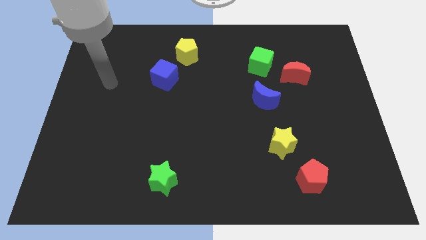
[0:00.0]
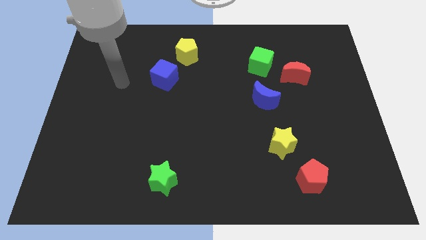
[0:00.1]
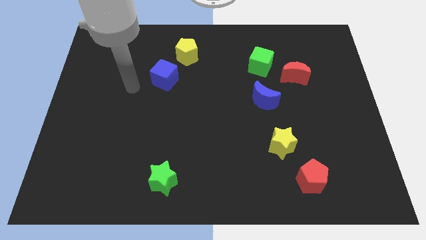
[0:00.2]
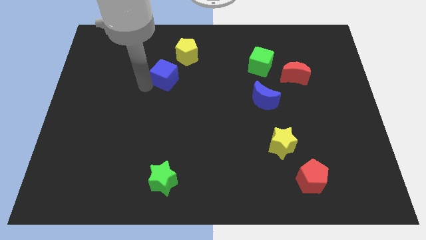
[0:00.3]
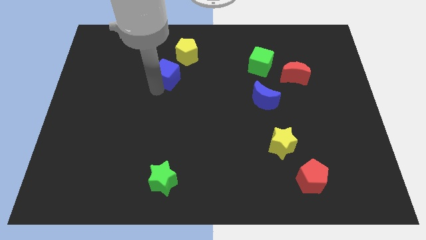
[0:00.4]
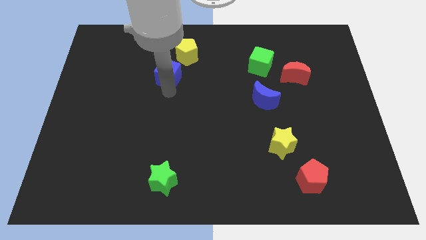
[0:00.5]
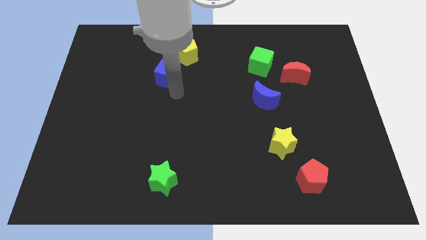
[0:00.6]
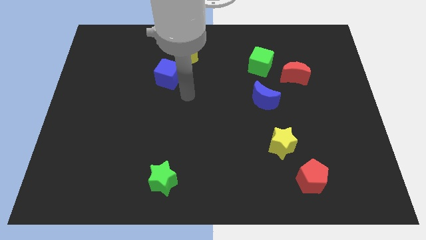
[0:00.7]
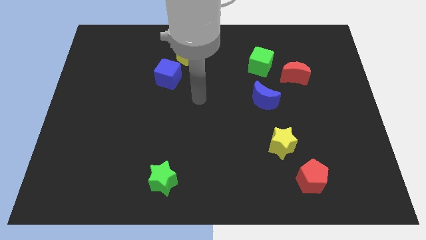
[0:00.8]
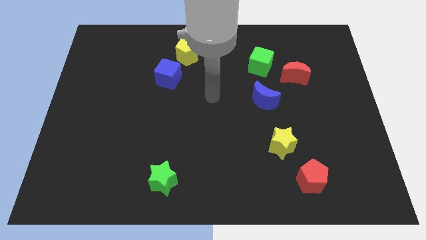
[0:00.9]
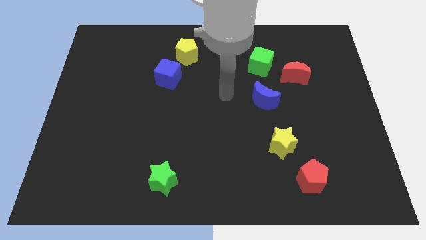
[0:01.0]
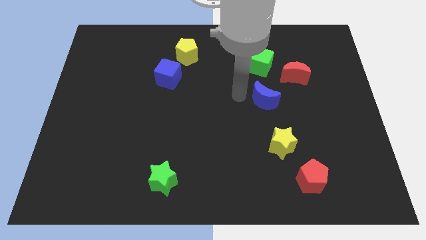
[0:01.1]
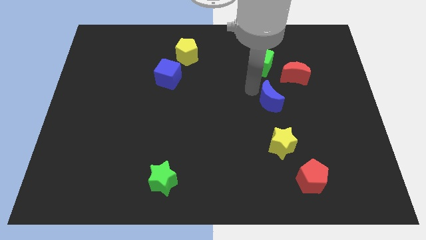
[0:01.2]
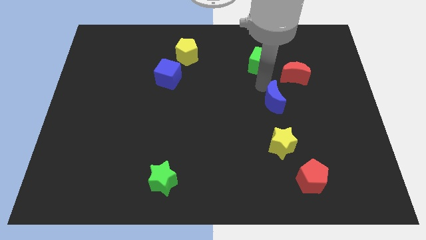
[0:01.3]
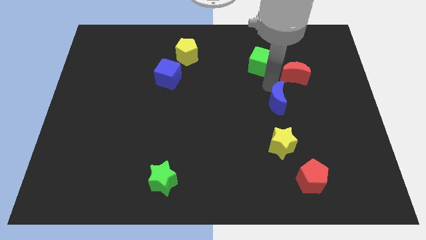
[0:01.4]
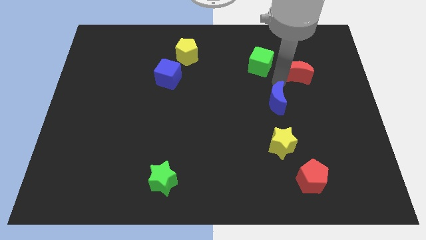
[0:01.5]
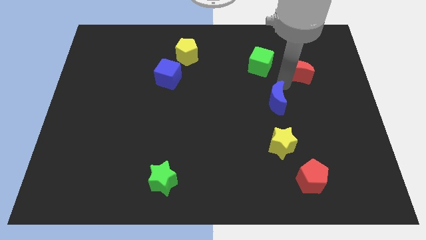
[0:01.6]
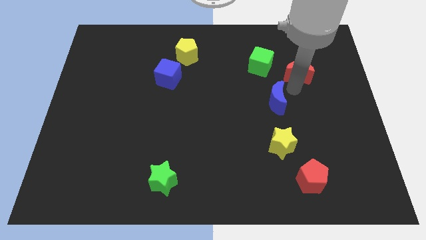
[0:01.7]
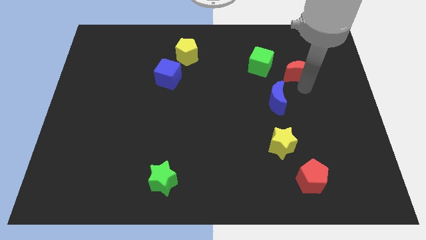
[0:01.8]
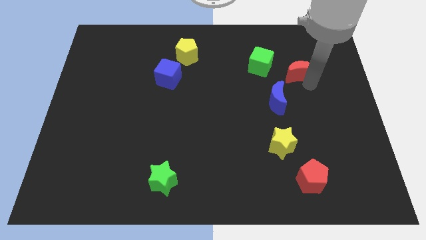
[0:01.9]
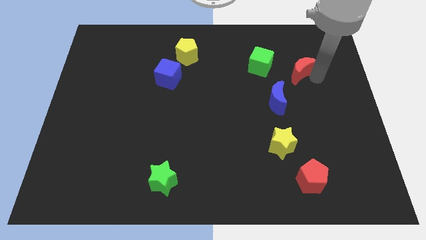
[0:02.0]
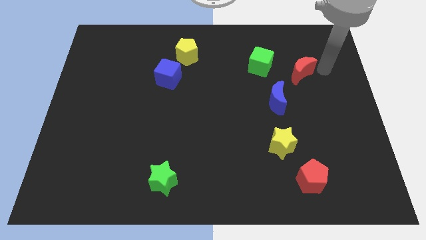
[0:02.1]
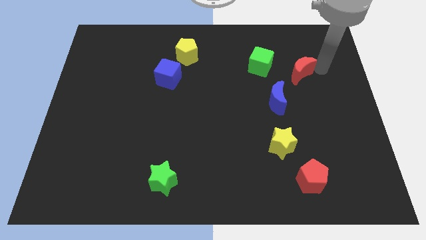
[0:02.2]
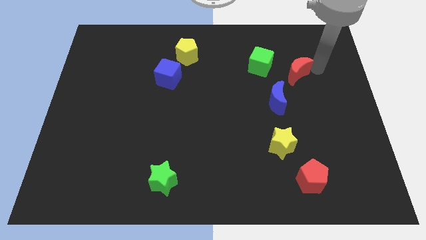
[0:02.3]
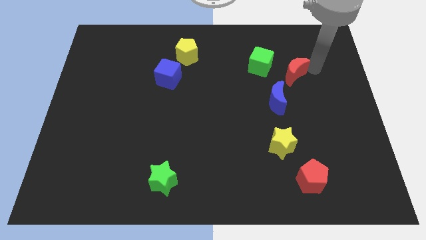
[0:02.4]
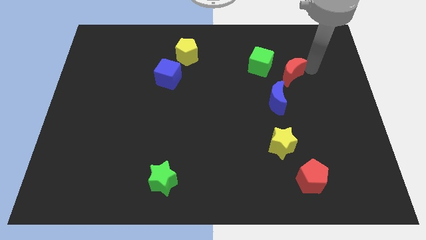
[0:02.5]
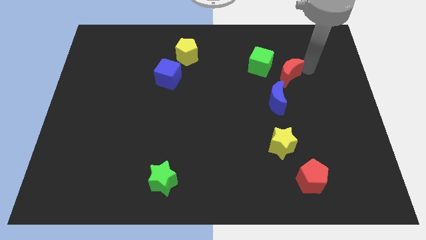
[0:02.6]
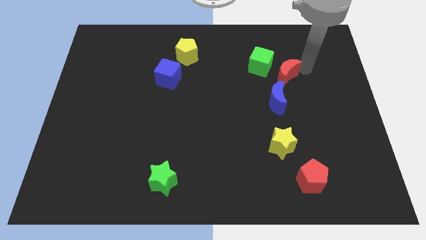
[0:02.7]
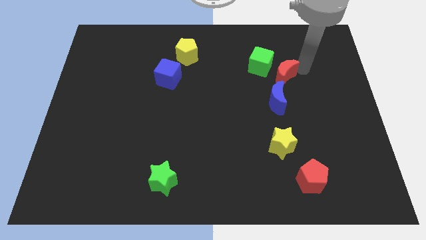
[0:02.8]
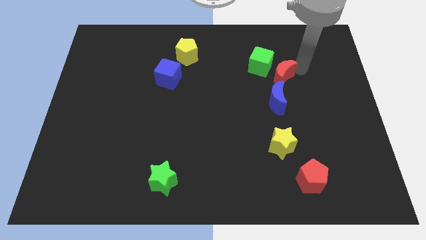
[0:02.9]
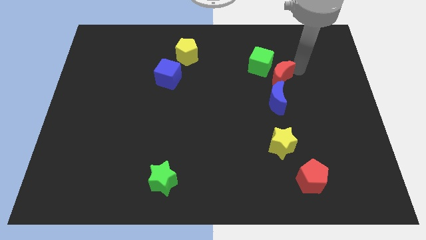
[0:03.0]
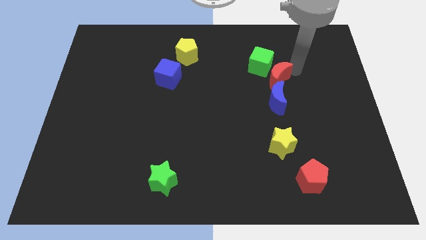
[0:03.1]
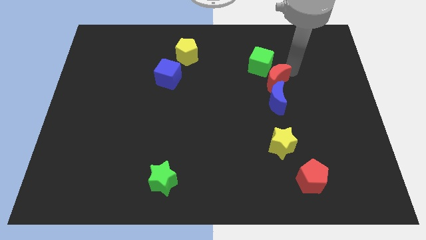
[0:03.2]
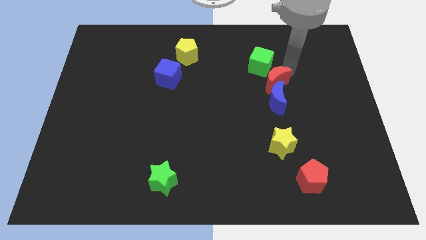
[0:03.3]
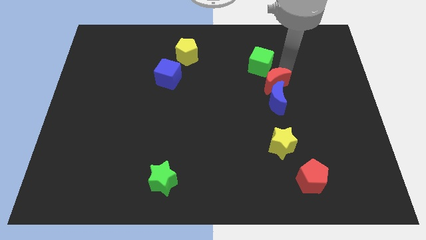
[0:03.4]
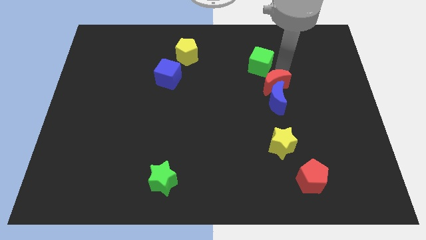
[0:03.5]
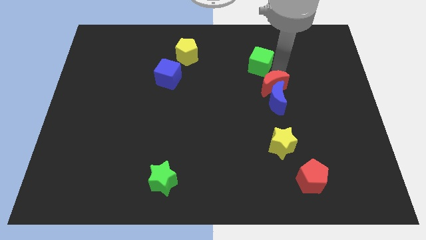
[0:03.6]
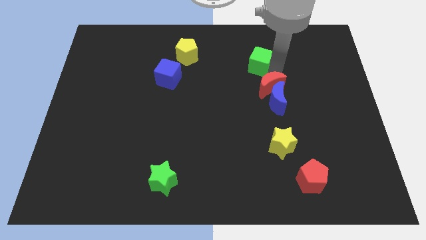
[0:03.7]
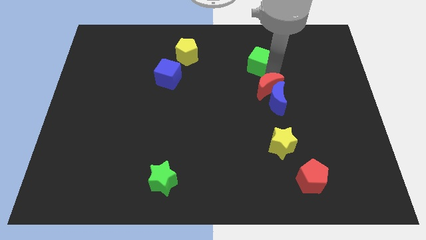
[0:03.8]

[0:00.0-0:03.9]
slightly push the red moon to the left

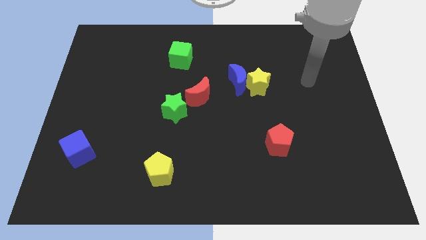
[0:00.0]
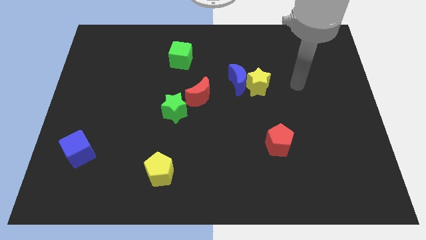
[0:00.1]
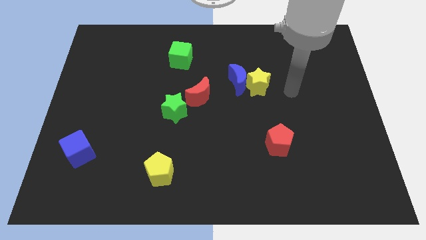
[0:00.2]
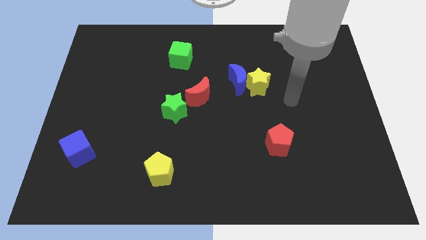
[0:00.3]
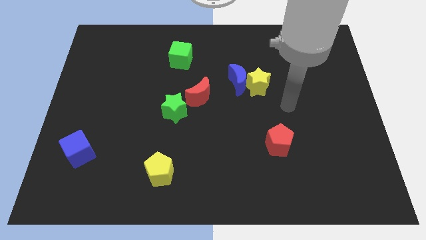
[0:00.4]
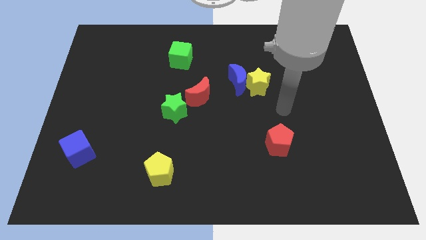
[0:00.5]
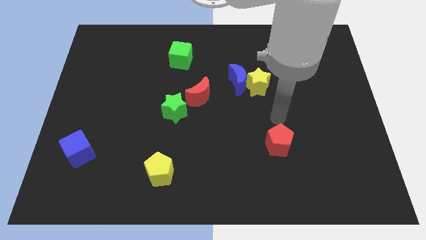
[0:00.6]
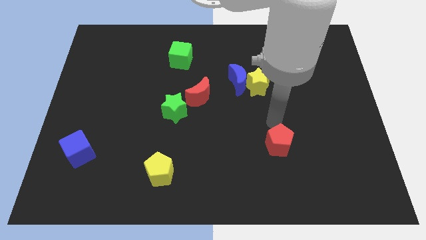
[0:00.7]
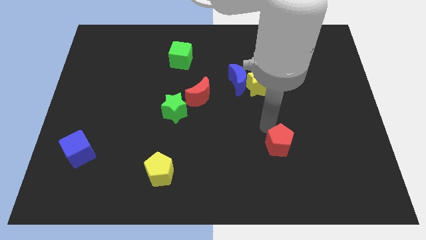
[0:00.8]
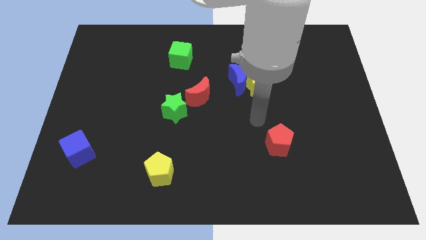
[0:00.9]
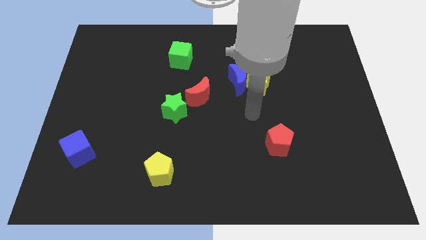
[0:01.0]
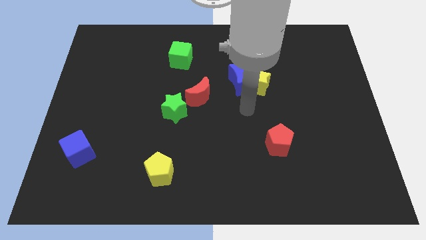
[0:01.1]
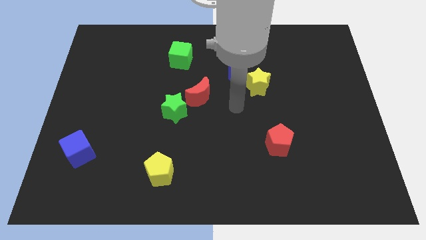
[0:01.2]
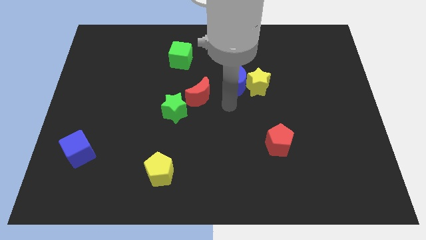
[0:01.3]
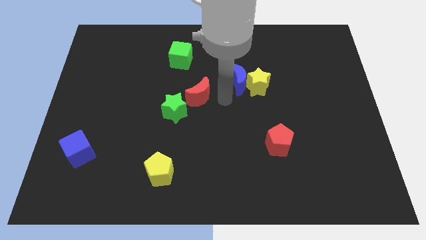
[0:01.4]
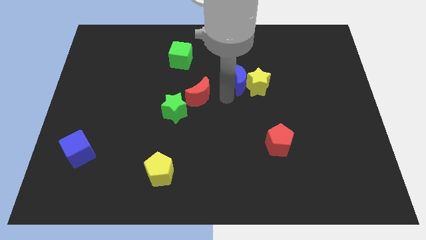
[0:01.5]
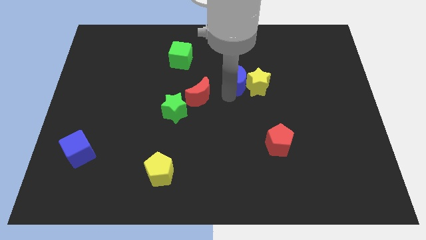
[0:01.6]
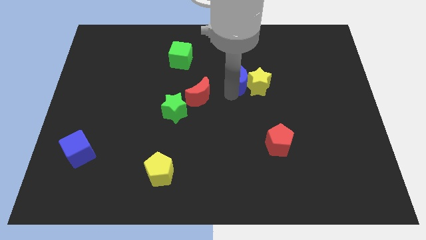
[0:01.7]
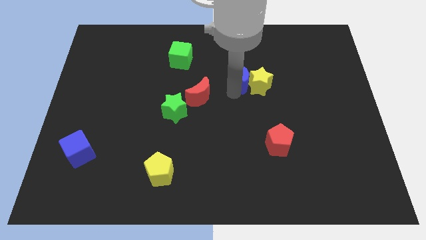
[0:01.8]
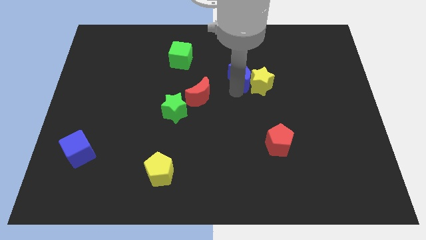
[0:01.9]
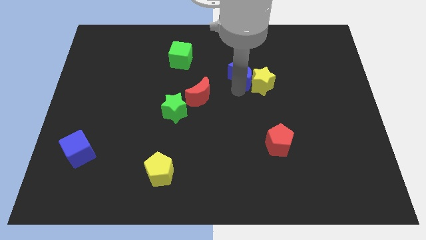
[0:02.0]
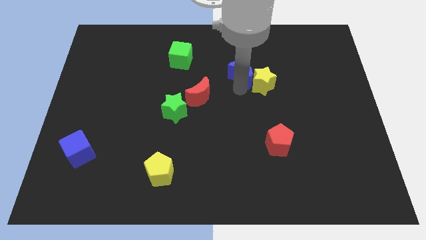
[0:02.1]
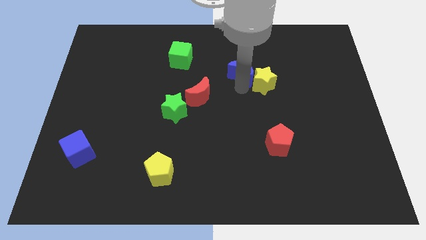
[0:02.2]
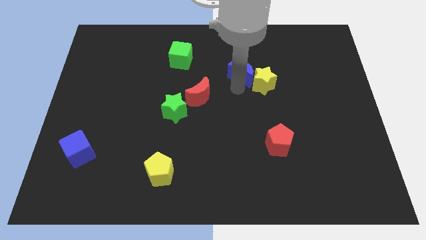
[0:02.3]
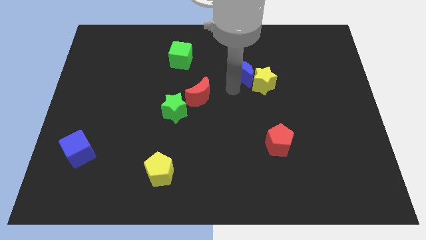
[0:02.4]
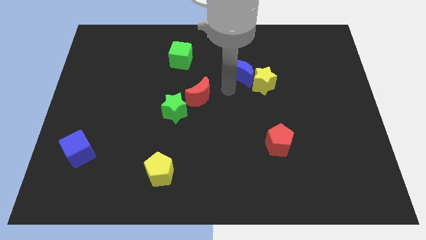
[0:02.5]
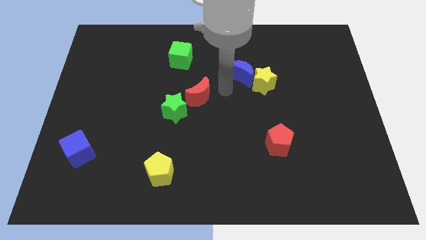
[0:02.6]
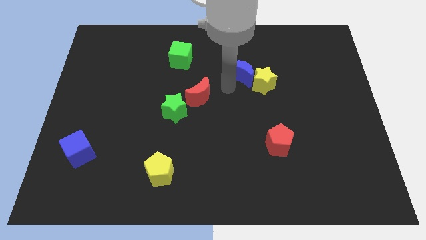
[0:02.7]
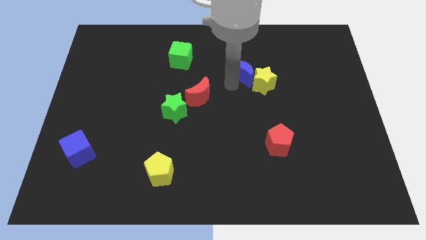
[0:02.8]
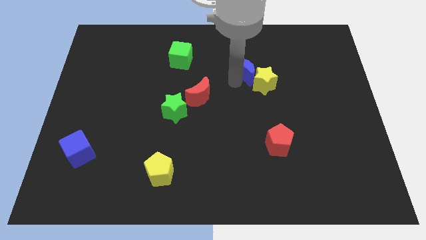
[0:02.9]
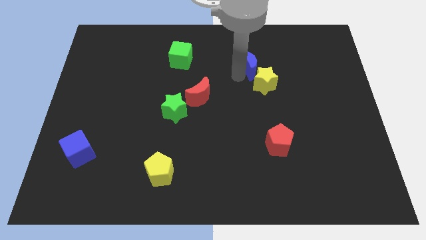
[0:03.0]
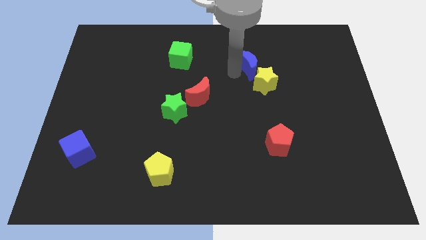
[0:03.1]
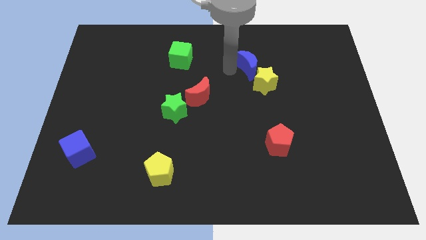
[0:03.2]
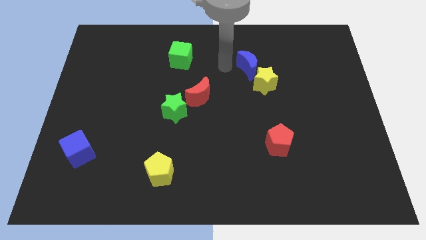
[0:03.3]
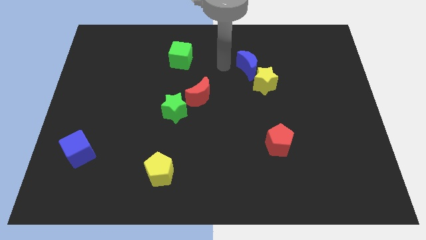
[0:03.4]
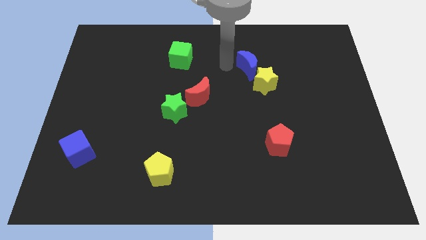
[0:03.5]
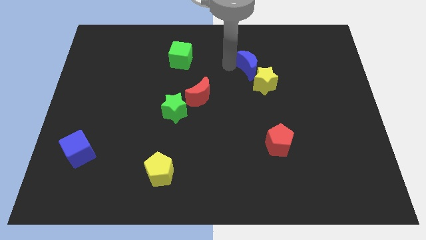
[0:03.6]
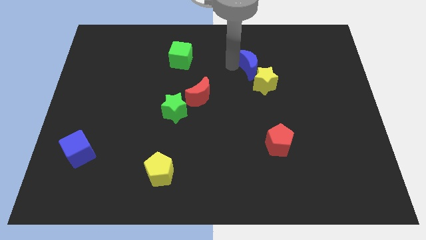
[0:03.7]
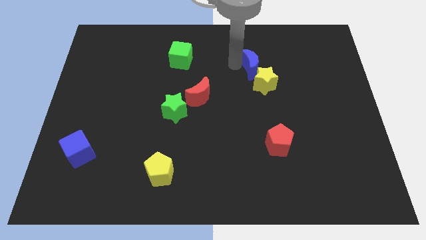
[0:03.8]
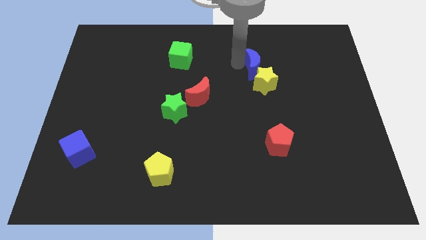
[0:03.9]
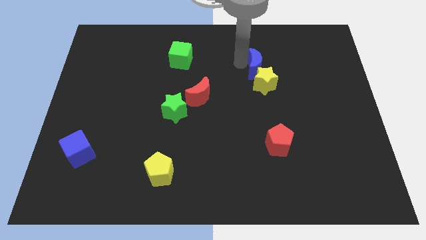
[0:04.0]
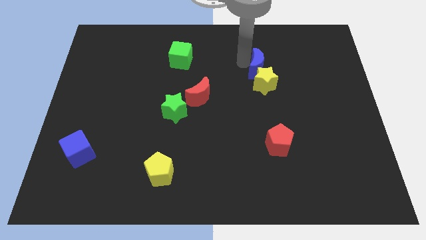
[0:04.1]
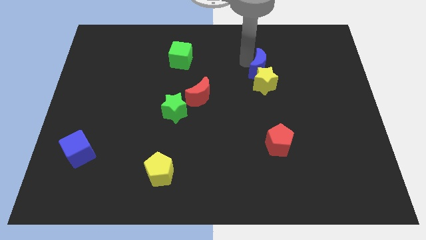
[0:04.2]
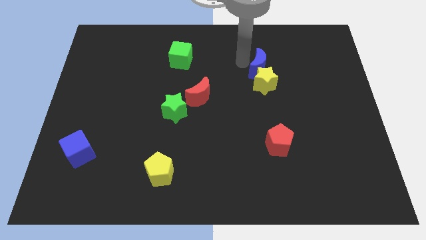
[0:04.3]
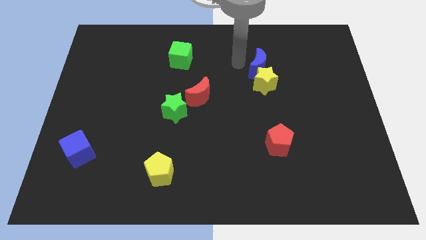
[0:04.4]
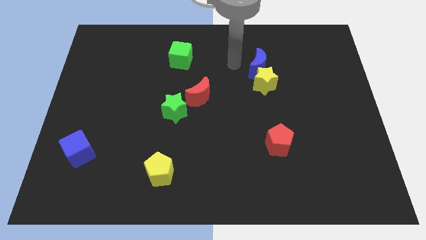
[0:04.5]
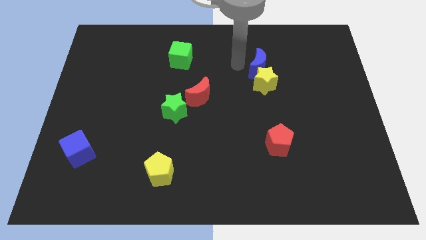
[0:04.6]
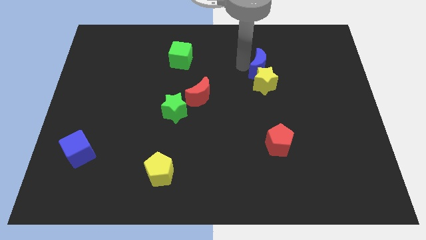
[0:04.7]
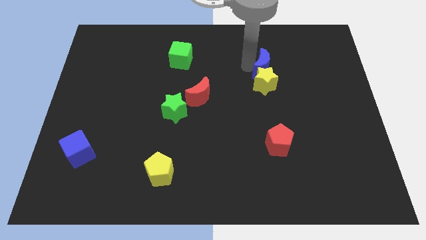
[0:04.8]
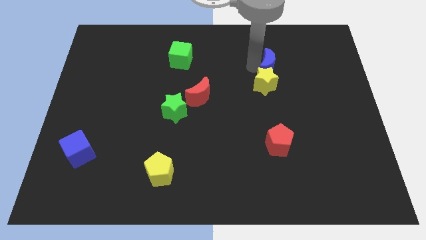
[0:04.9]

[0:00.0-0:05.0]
move the blue moon slightly right
